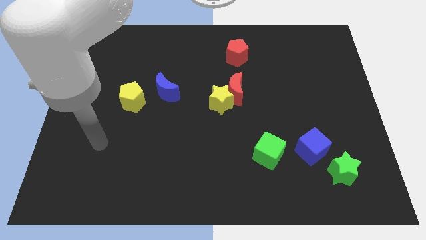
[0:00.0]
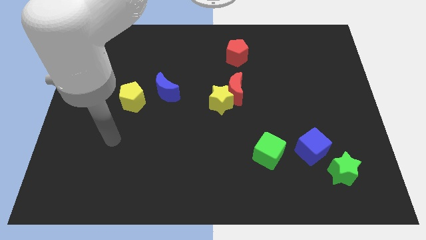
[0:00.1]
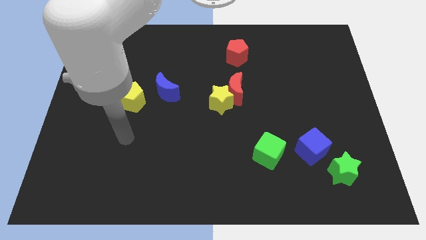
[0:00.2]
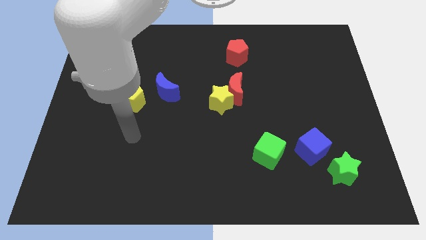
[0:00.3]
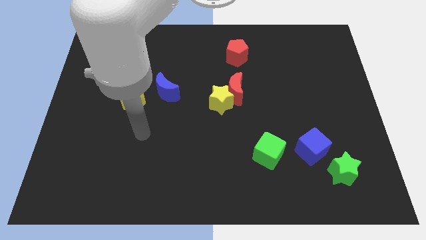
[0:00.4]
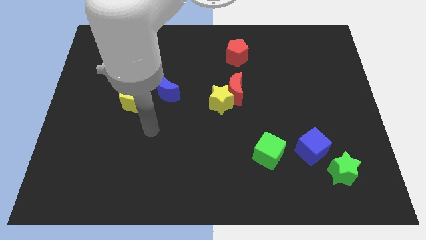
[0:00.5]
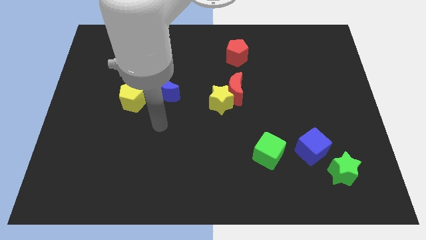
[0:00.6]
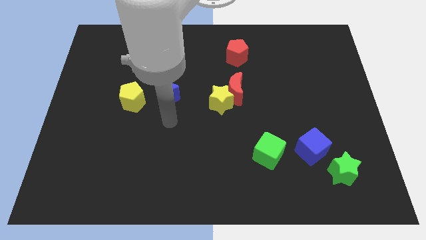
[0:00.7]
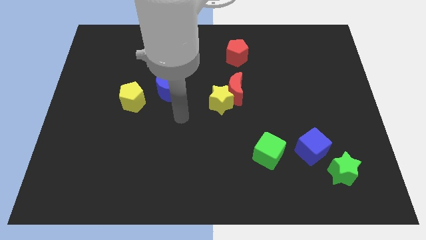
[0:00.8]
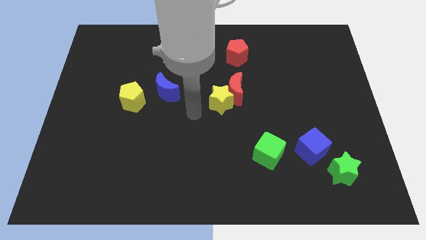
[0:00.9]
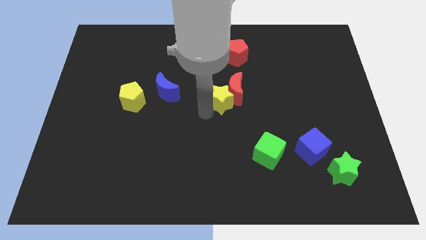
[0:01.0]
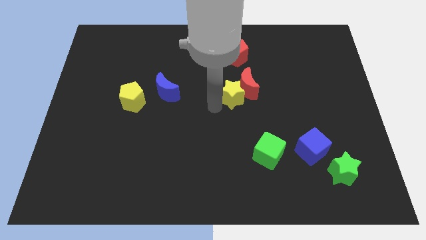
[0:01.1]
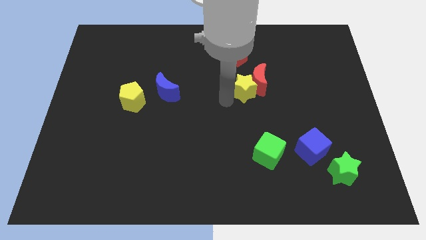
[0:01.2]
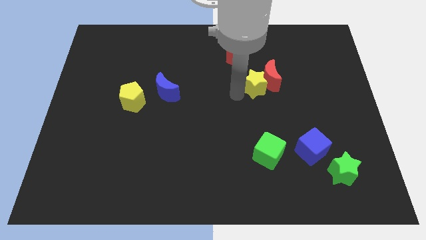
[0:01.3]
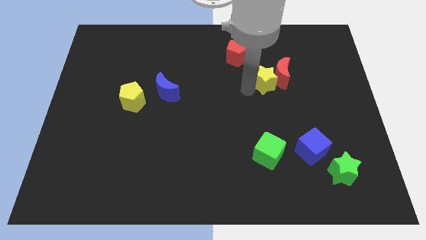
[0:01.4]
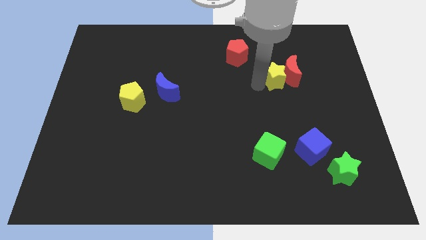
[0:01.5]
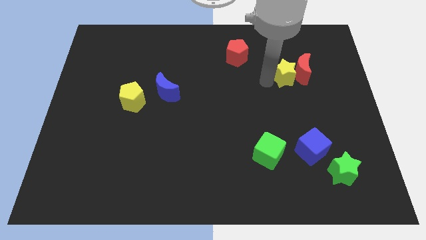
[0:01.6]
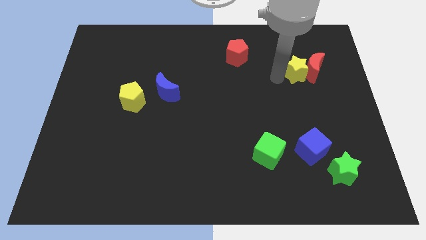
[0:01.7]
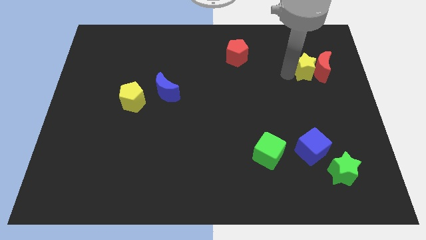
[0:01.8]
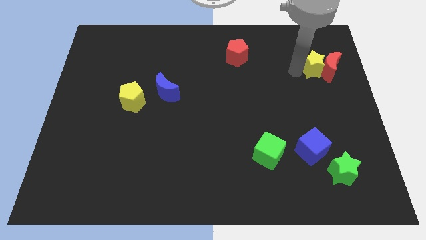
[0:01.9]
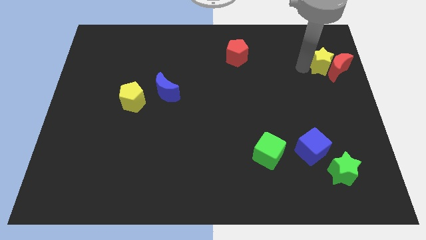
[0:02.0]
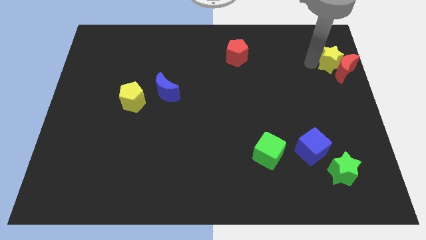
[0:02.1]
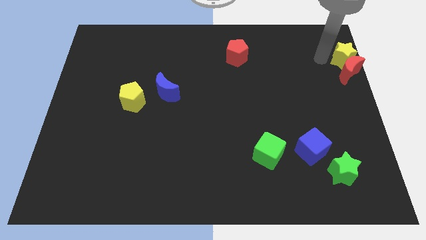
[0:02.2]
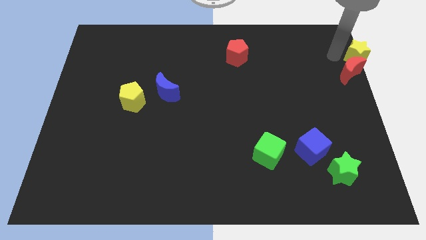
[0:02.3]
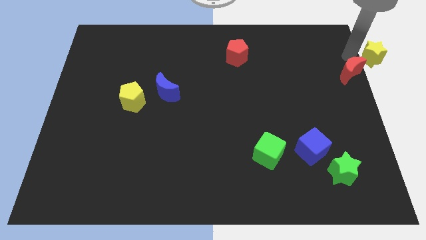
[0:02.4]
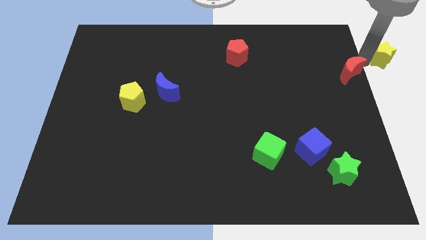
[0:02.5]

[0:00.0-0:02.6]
move the red moon away from the yellow star

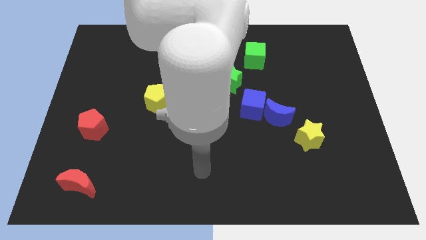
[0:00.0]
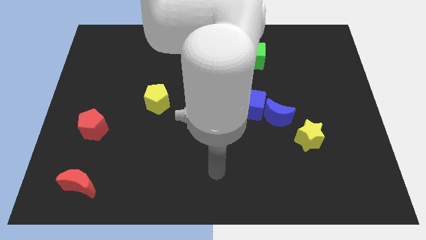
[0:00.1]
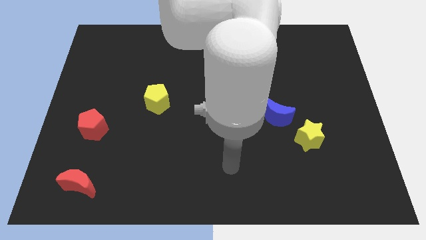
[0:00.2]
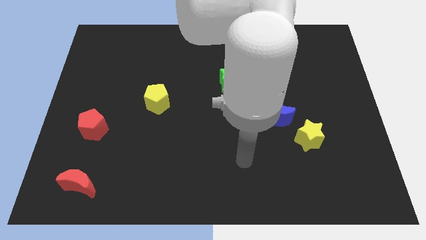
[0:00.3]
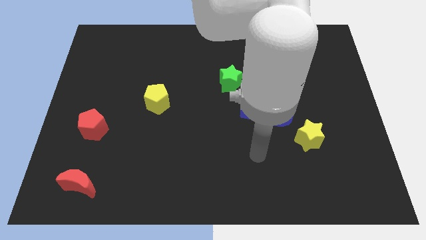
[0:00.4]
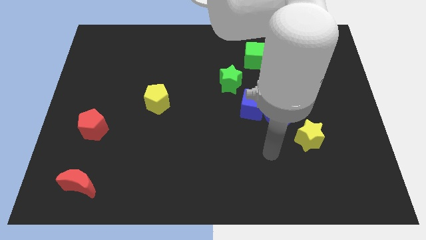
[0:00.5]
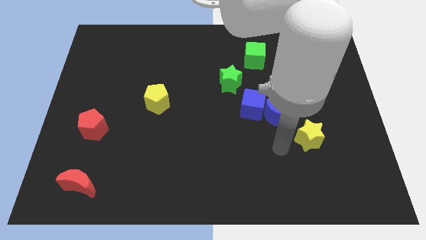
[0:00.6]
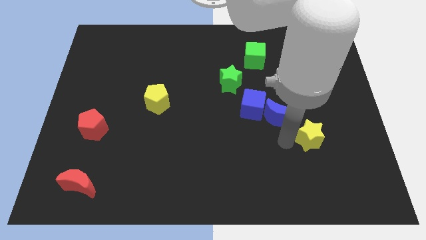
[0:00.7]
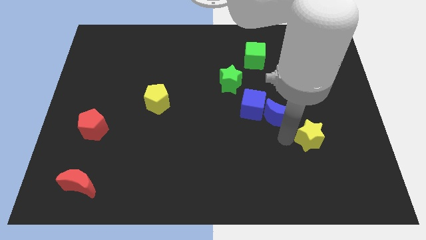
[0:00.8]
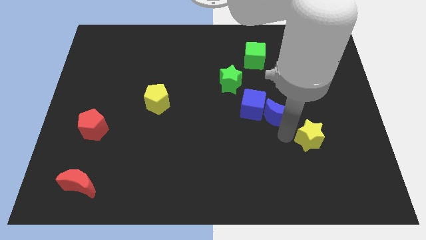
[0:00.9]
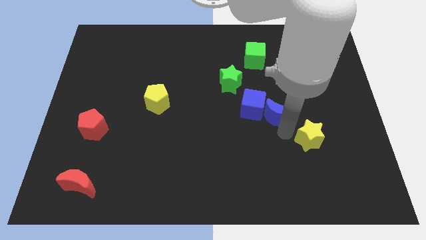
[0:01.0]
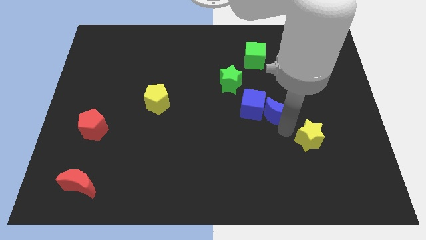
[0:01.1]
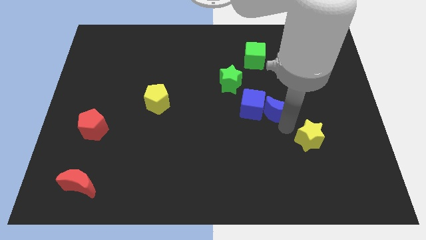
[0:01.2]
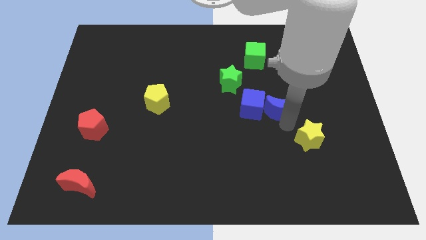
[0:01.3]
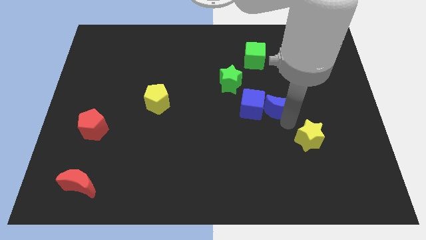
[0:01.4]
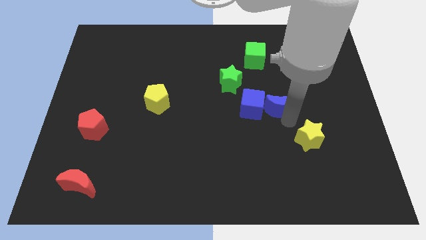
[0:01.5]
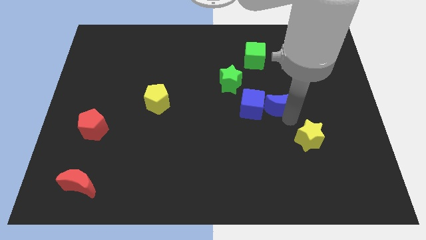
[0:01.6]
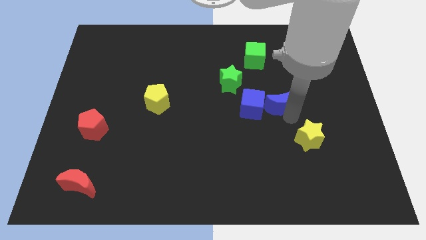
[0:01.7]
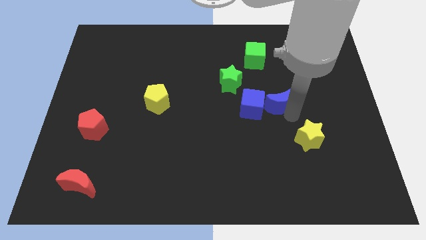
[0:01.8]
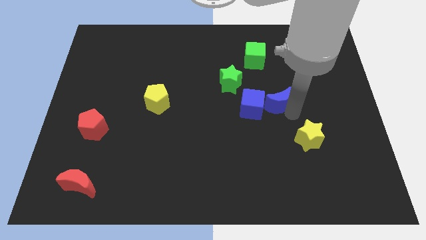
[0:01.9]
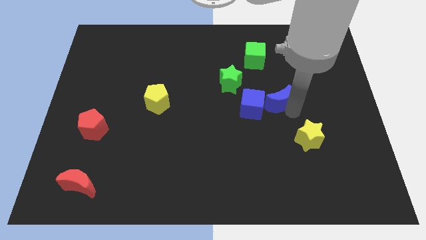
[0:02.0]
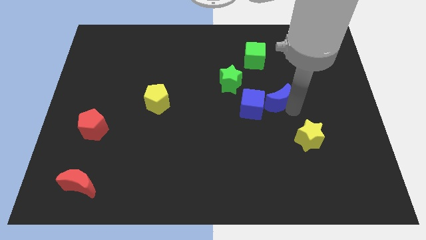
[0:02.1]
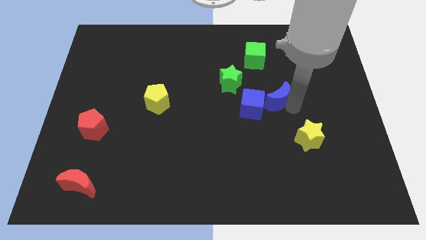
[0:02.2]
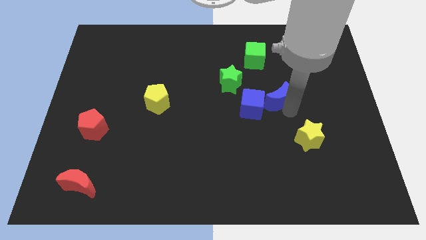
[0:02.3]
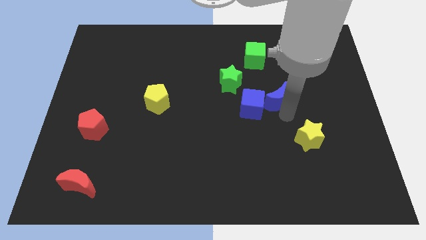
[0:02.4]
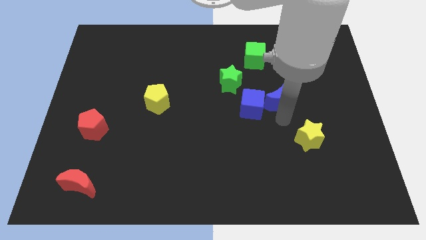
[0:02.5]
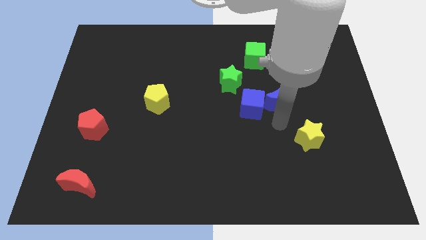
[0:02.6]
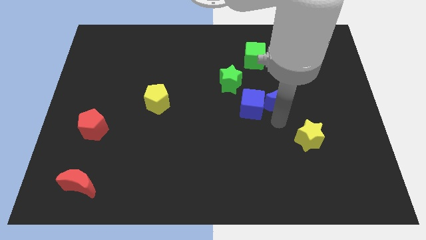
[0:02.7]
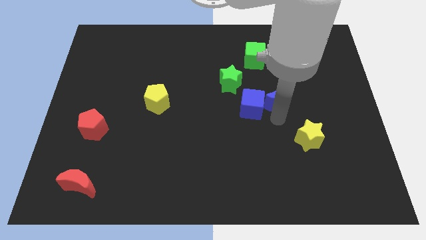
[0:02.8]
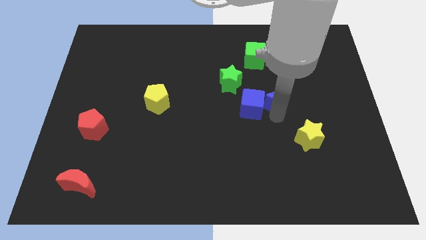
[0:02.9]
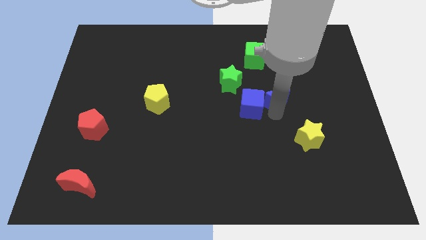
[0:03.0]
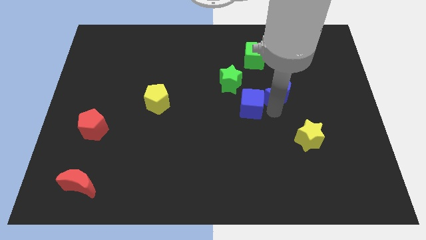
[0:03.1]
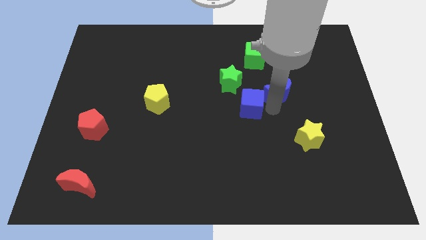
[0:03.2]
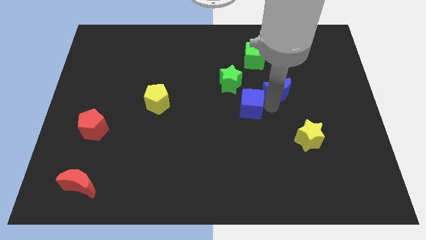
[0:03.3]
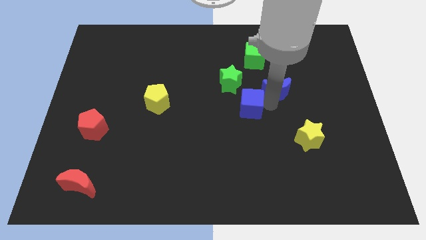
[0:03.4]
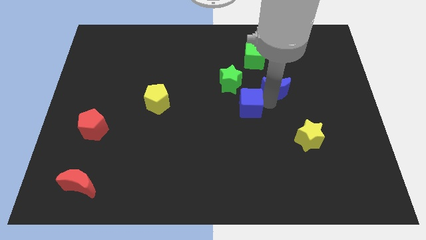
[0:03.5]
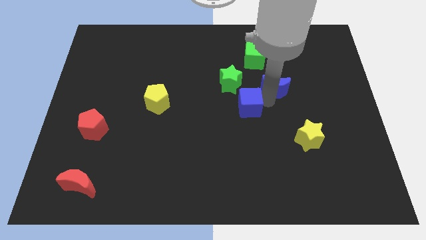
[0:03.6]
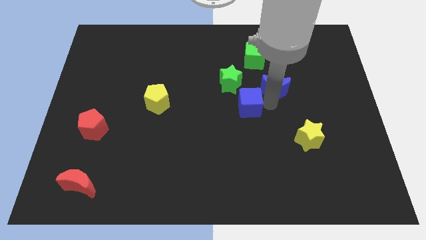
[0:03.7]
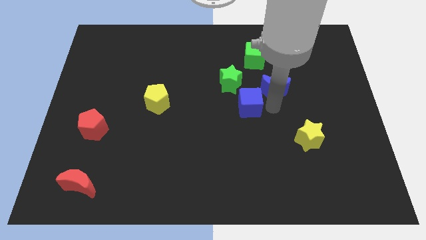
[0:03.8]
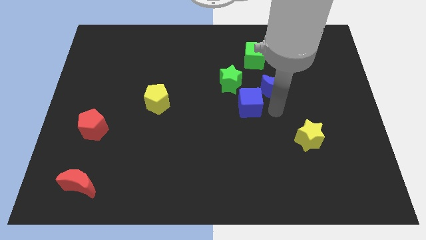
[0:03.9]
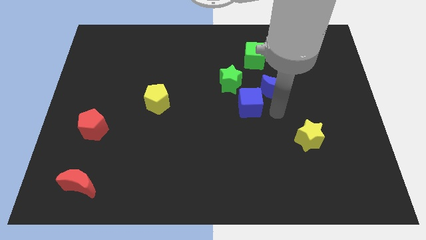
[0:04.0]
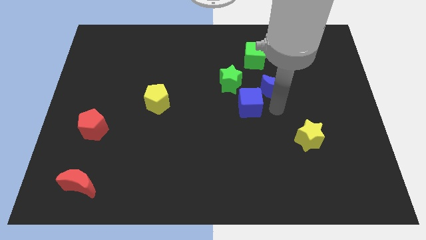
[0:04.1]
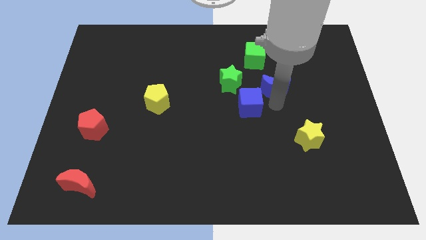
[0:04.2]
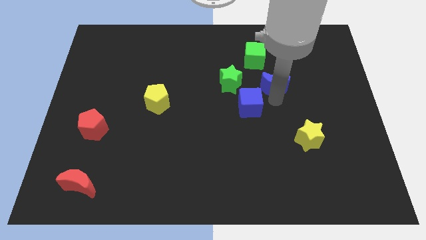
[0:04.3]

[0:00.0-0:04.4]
separate the blue moon from the blue cube and yellow star

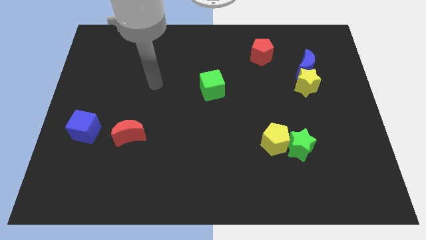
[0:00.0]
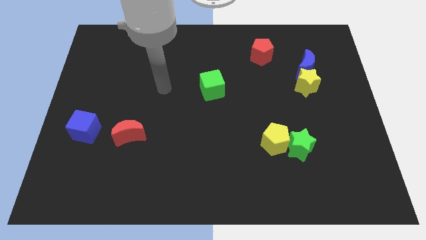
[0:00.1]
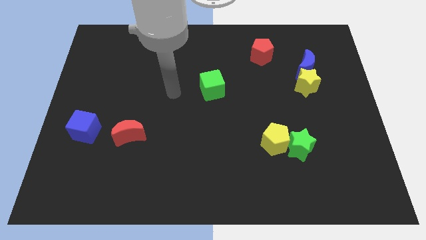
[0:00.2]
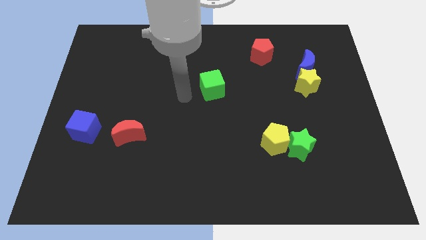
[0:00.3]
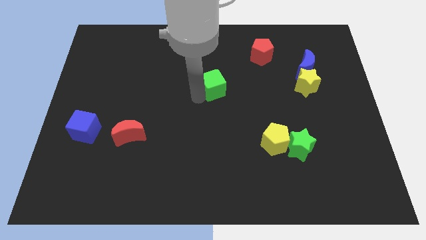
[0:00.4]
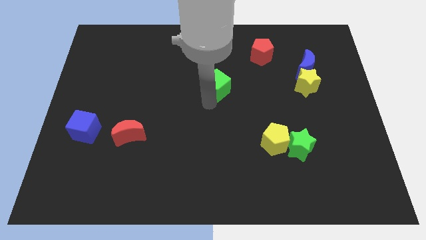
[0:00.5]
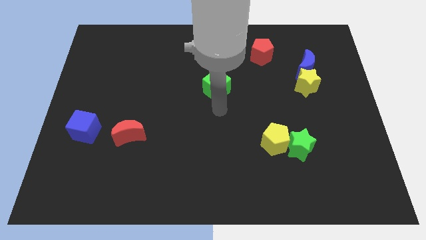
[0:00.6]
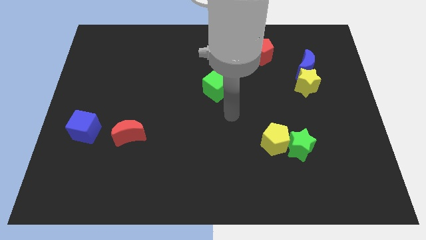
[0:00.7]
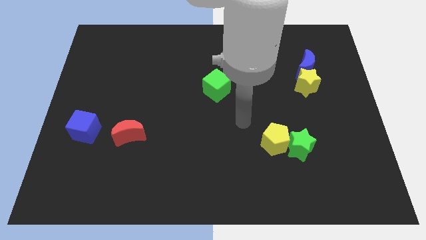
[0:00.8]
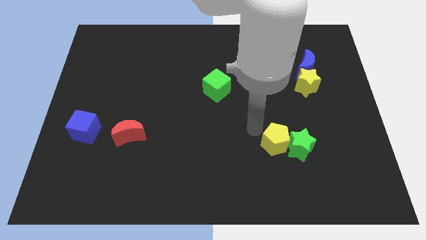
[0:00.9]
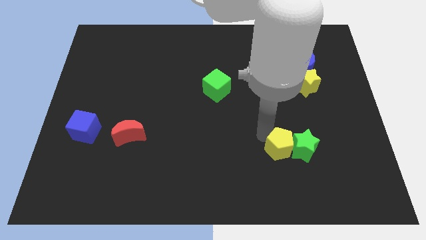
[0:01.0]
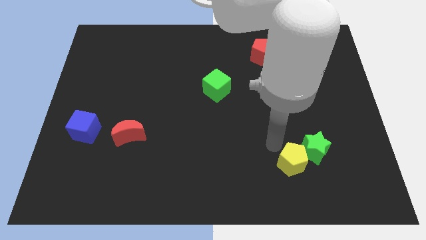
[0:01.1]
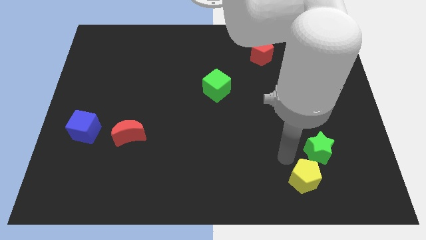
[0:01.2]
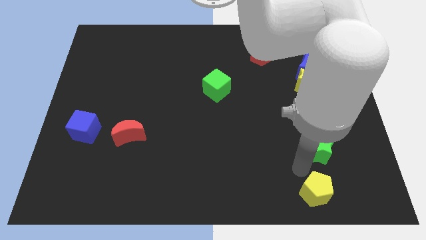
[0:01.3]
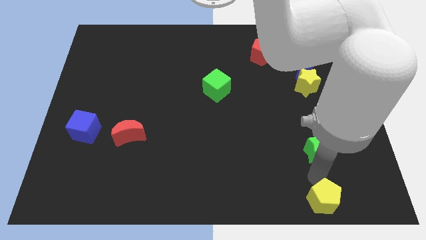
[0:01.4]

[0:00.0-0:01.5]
pull the green star apart from the yellow pentagon

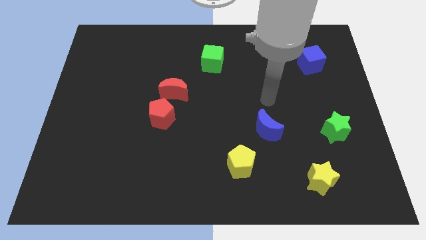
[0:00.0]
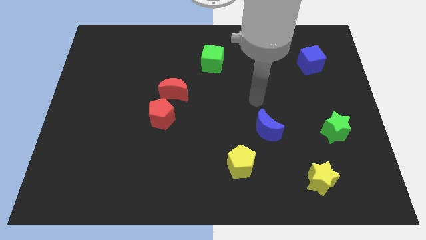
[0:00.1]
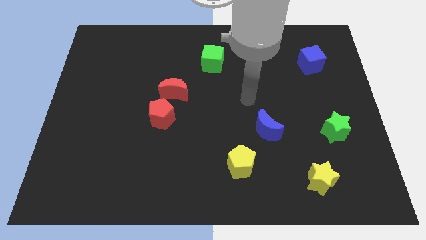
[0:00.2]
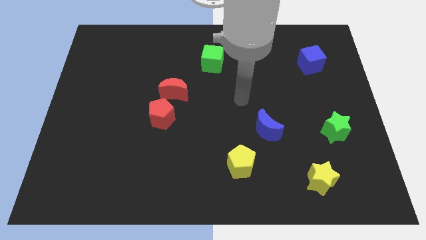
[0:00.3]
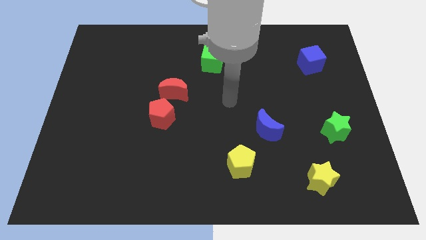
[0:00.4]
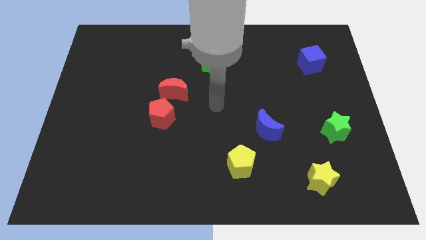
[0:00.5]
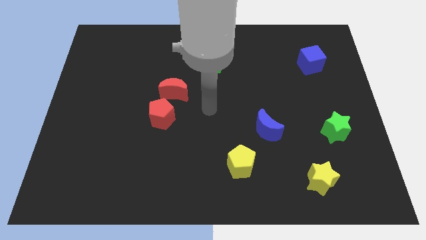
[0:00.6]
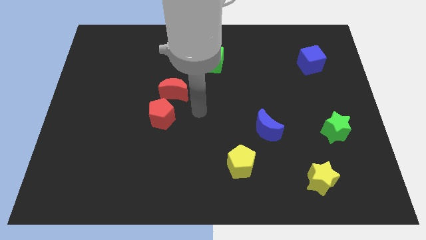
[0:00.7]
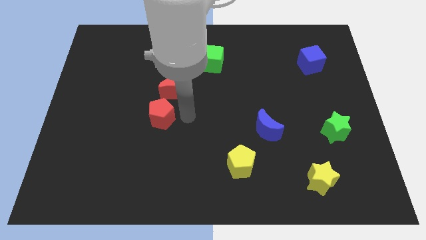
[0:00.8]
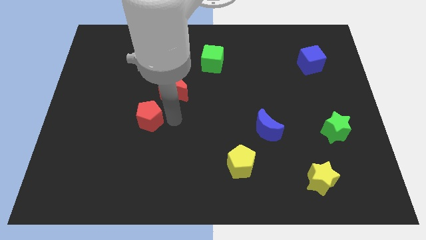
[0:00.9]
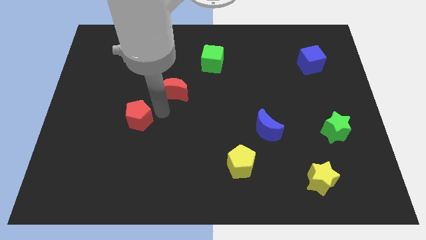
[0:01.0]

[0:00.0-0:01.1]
pull the red moon apart from the red pentagon
